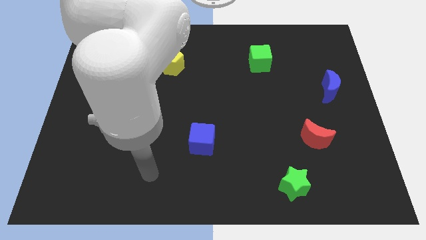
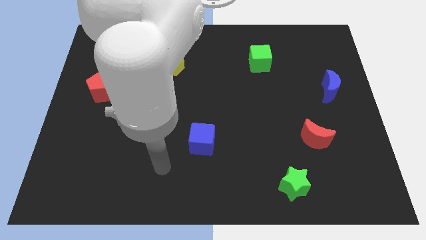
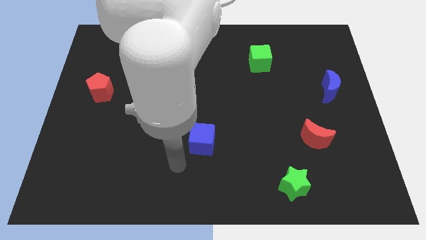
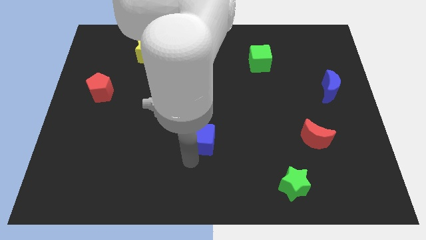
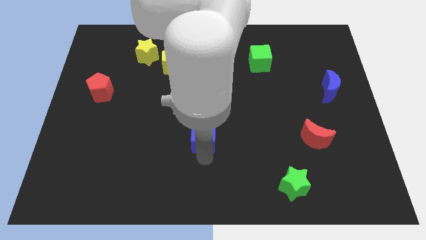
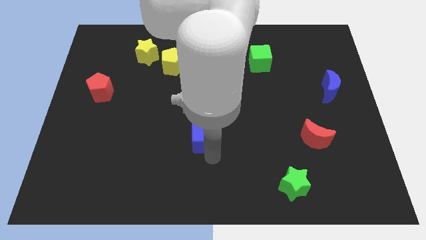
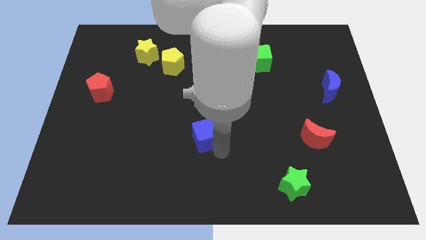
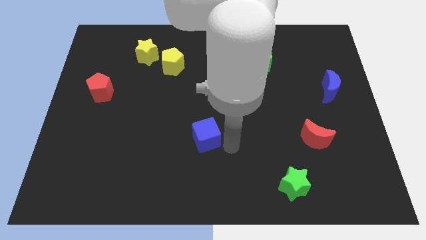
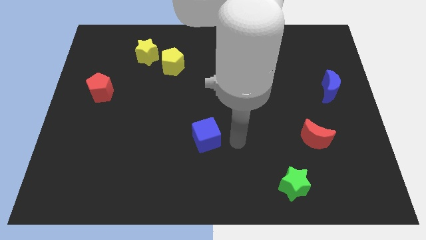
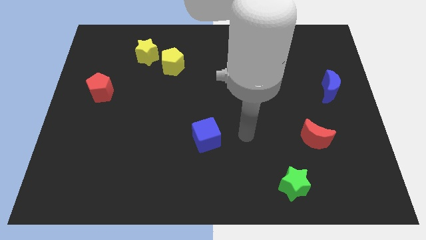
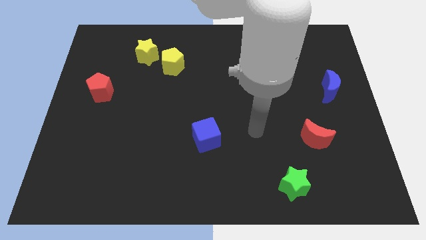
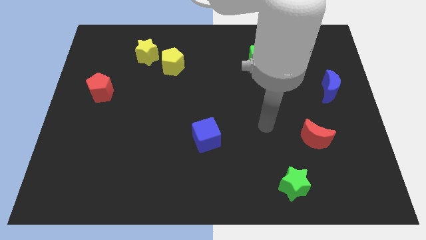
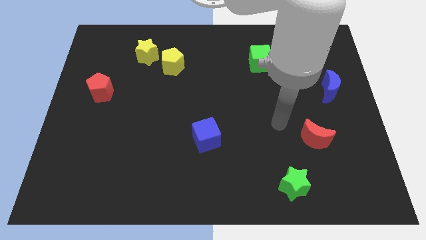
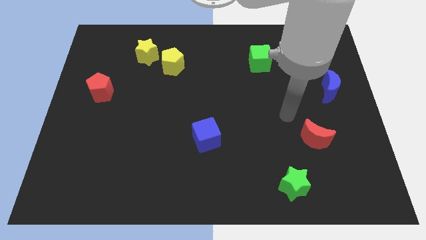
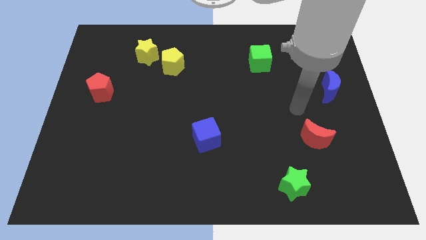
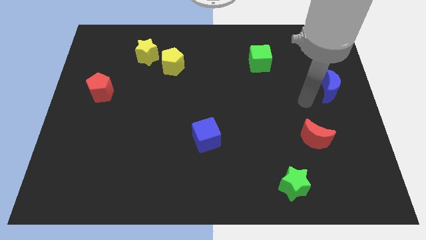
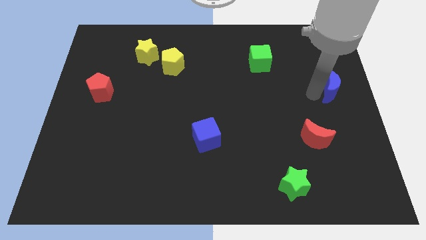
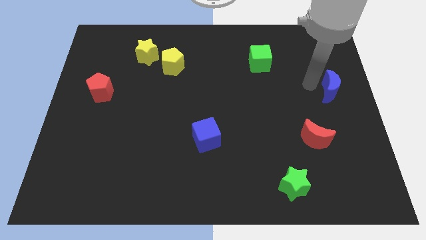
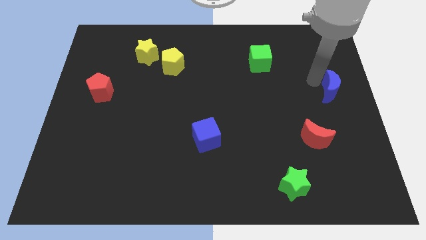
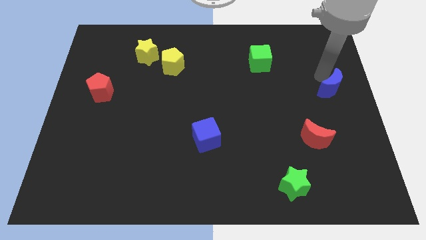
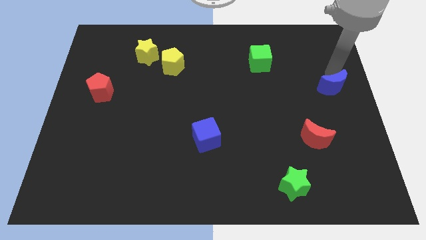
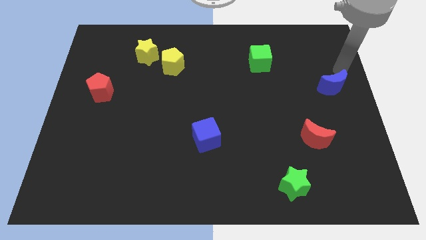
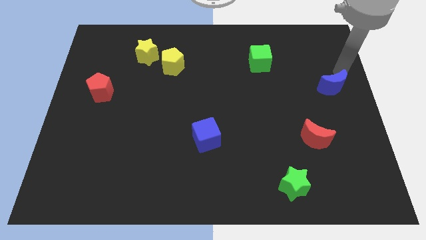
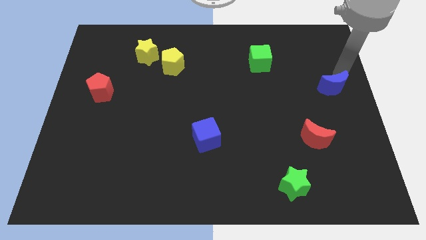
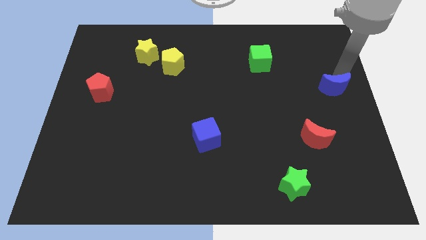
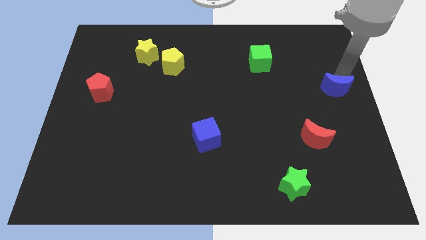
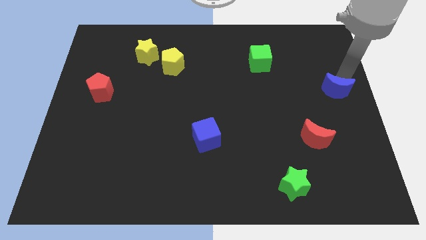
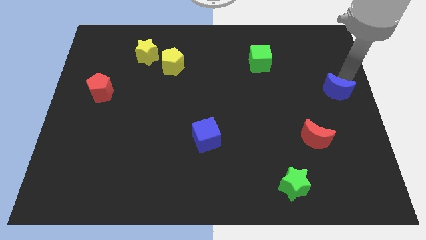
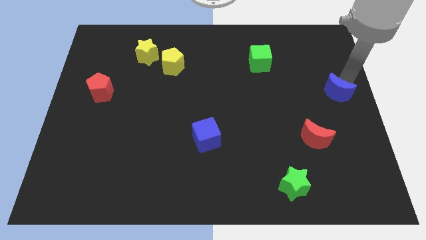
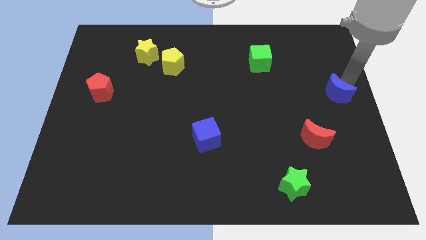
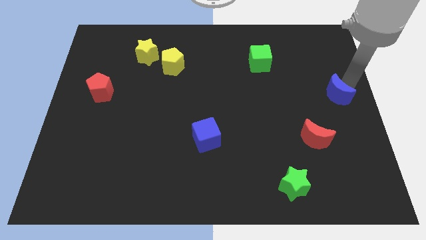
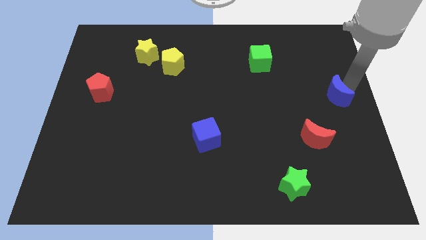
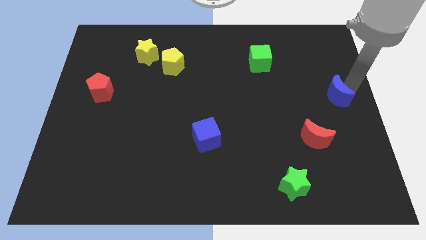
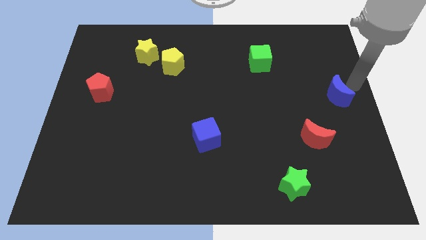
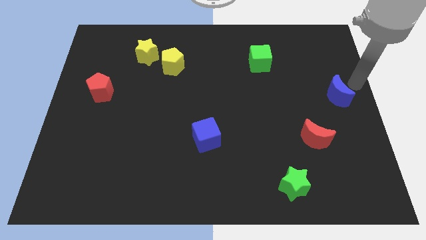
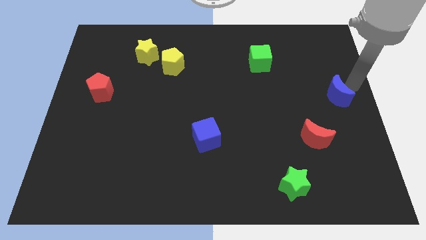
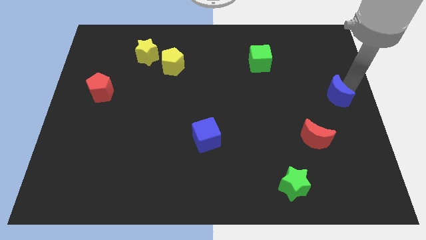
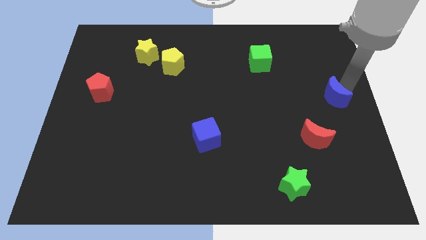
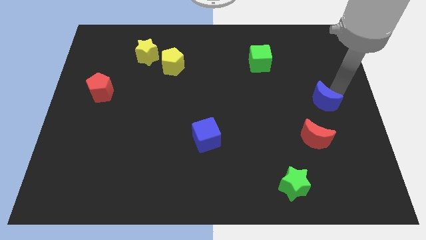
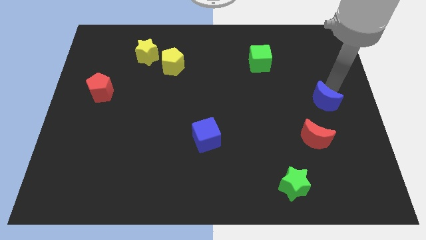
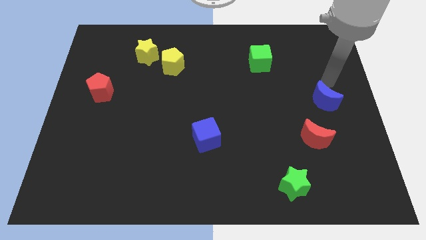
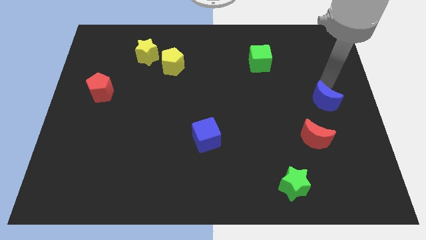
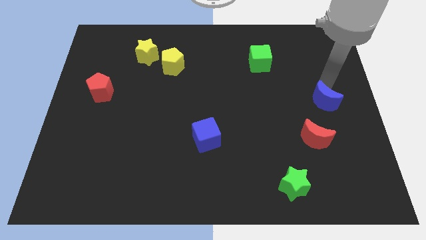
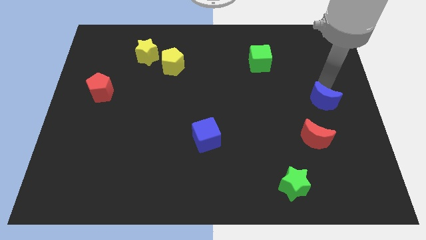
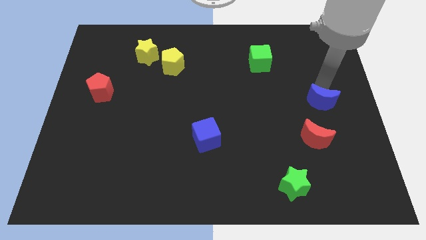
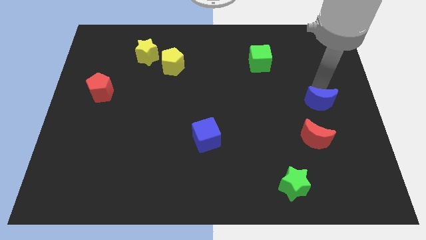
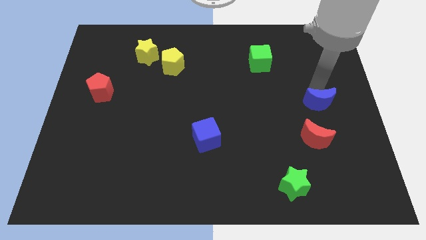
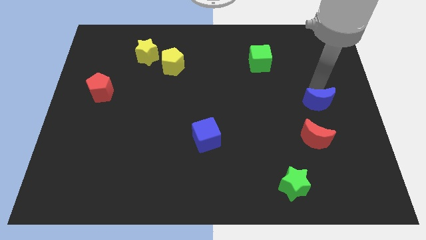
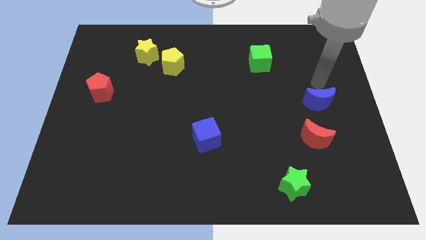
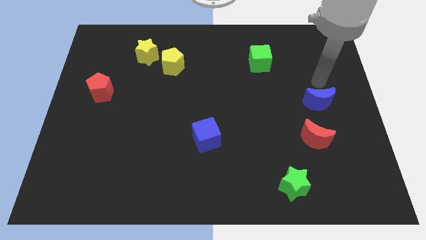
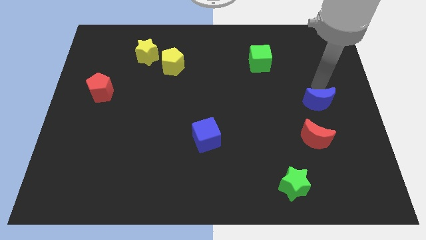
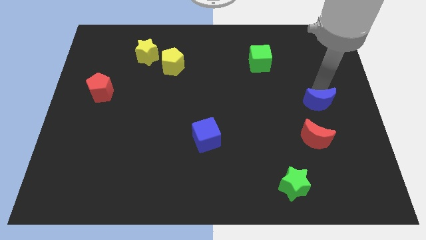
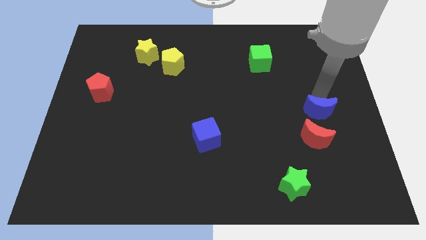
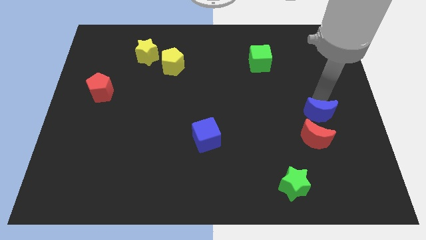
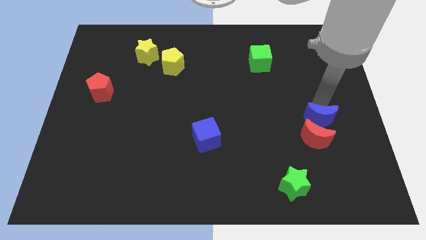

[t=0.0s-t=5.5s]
put the blue moon next to the red moon

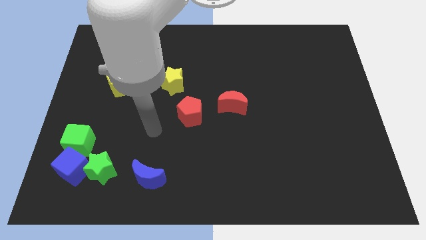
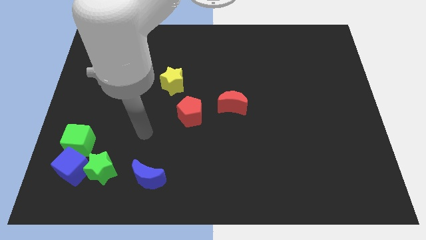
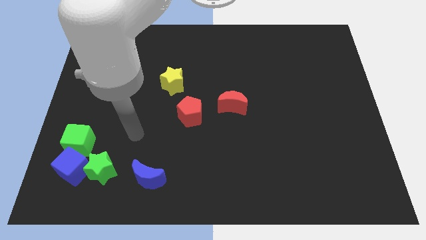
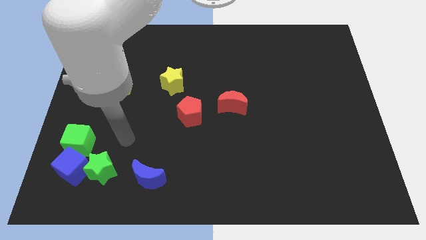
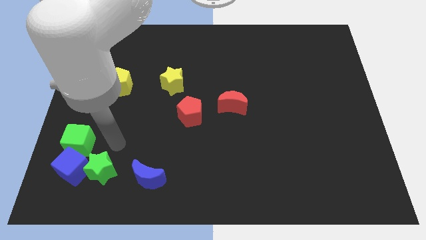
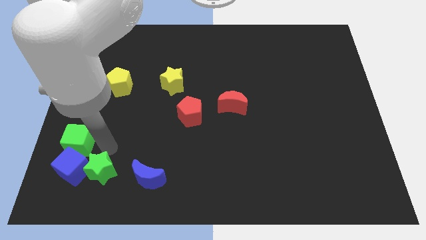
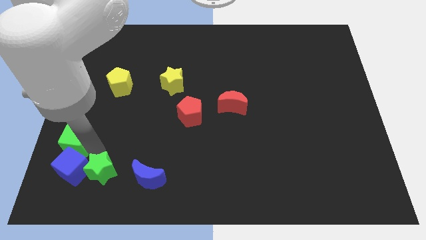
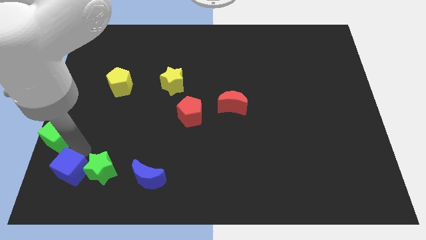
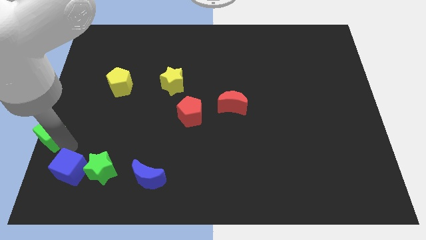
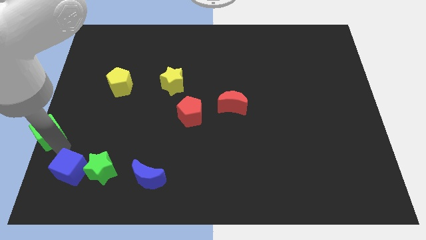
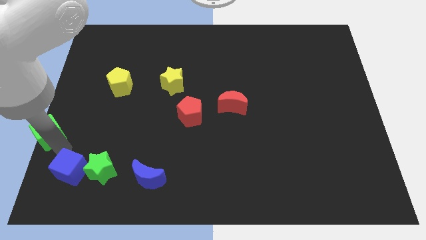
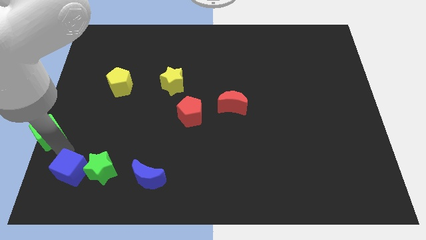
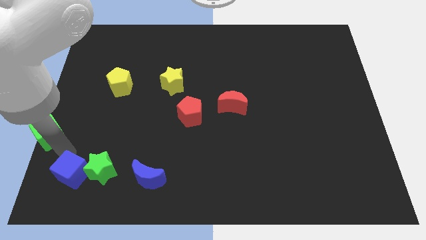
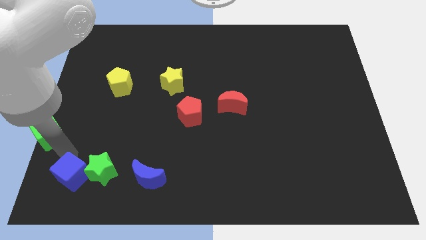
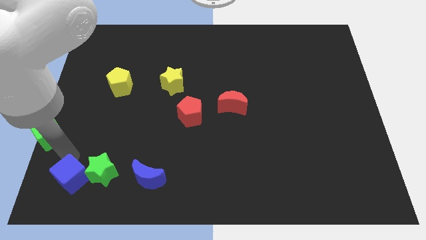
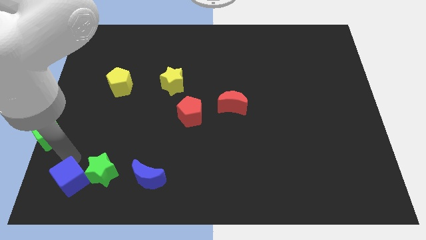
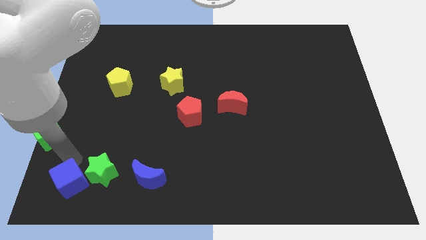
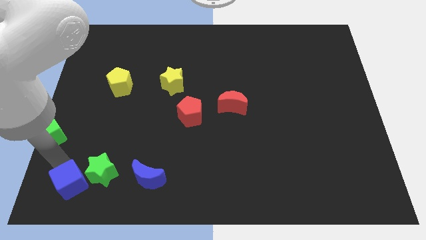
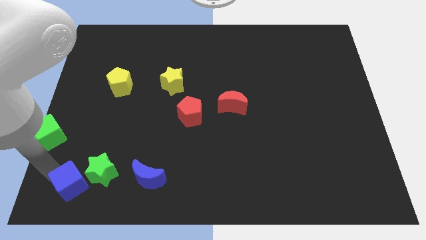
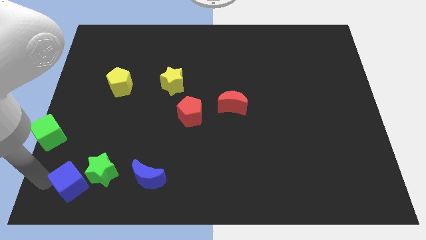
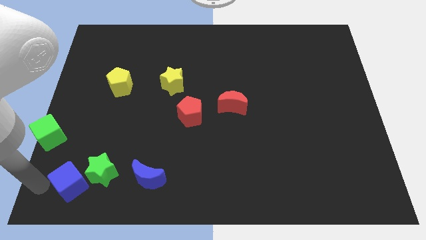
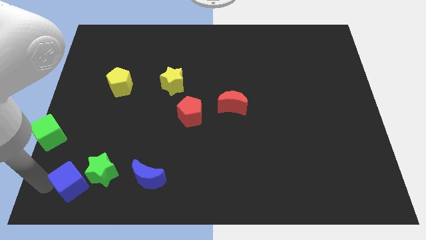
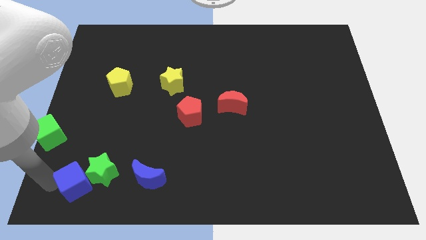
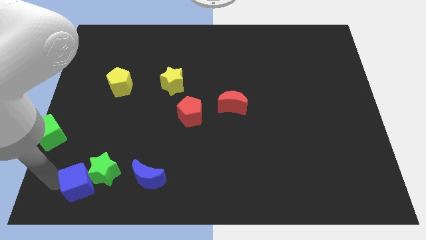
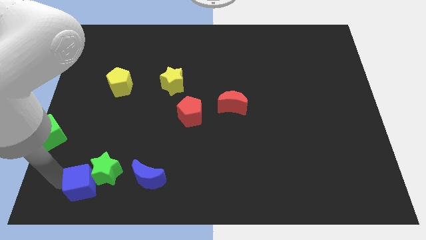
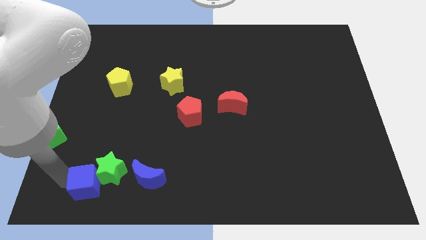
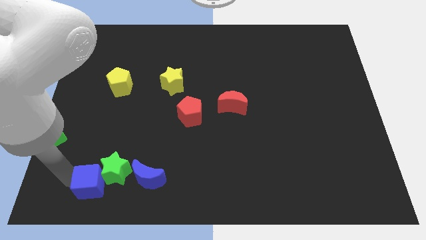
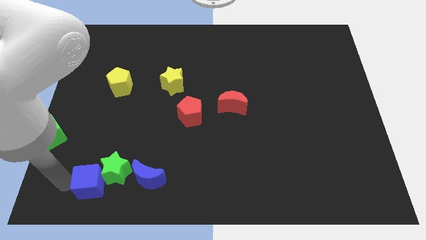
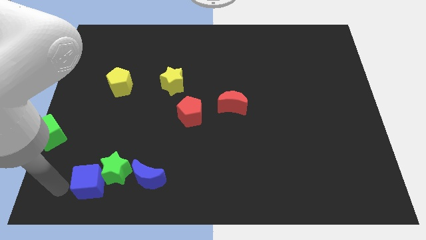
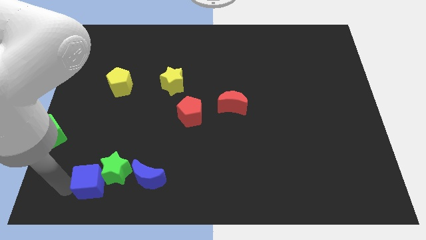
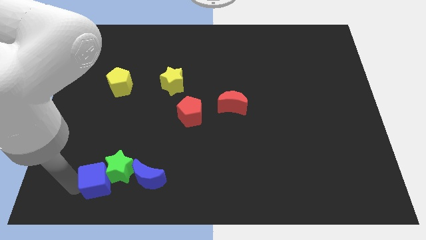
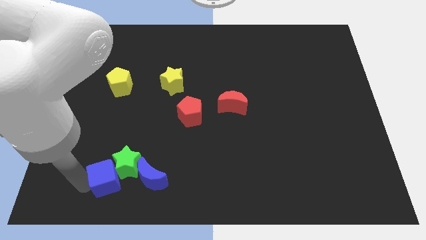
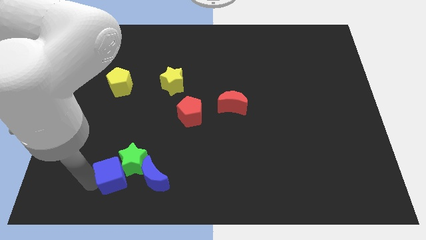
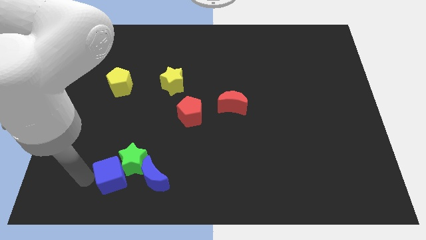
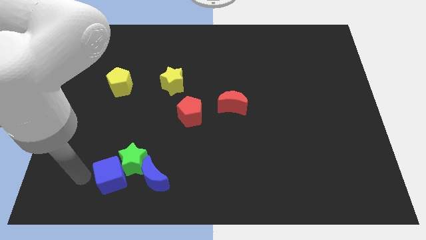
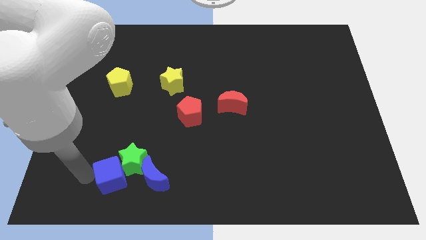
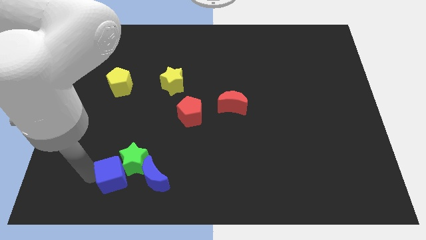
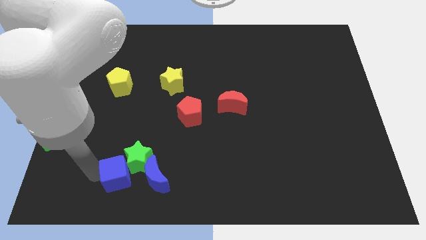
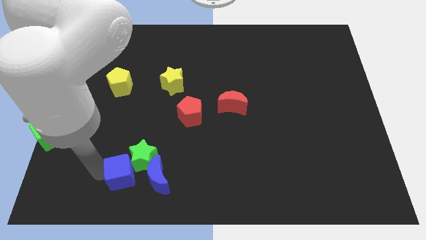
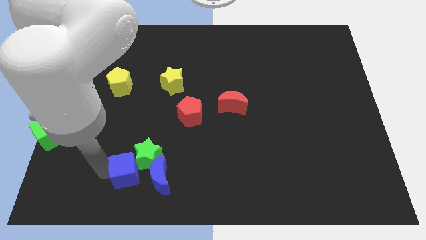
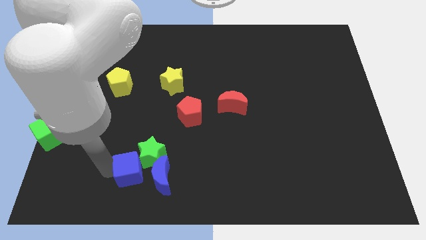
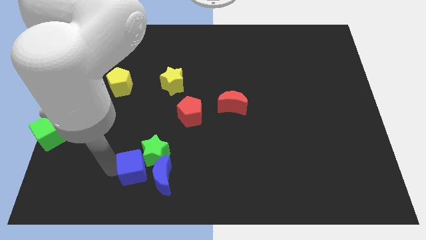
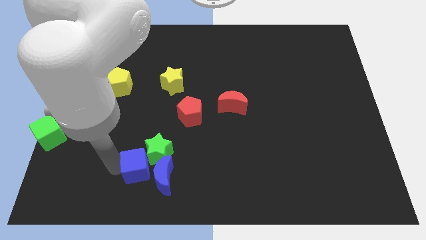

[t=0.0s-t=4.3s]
put the blue cube close to the blue moon
